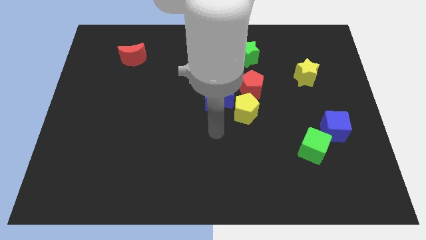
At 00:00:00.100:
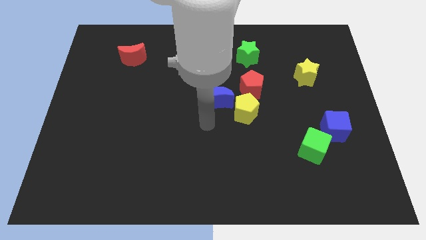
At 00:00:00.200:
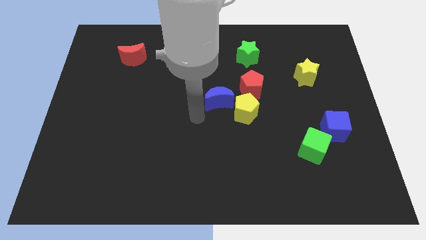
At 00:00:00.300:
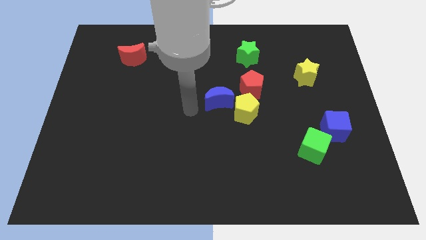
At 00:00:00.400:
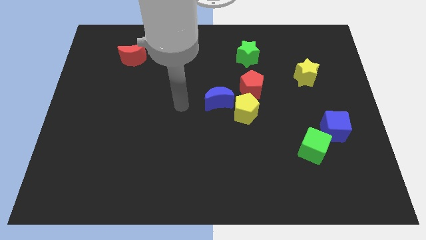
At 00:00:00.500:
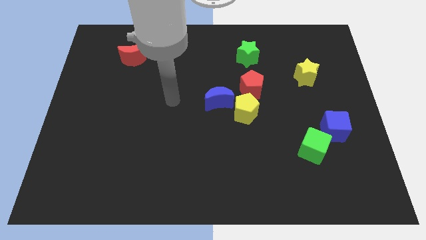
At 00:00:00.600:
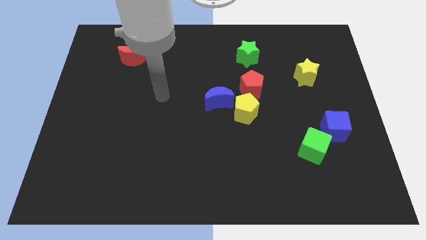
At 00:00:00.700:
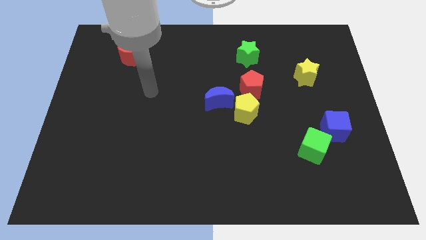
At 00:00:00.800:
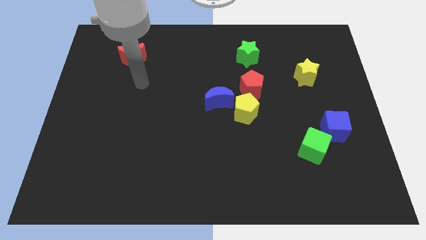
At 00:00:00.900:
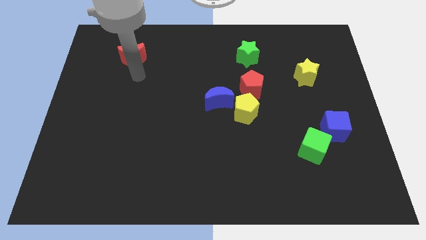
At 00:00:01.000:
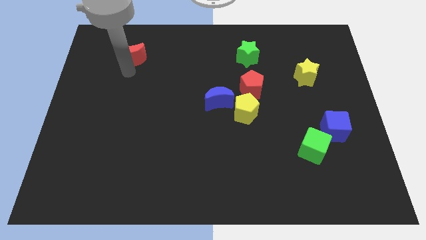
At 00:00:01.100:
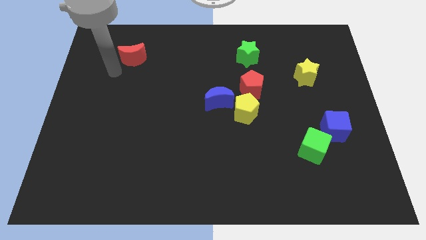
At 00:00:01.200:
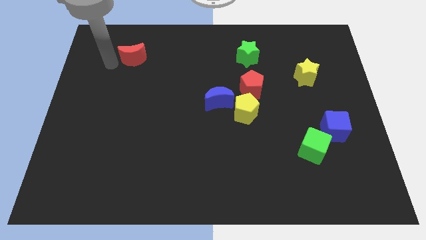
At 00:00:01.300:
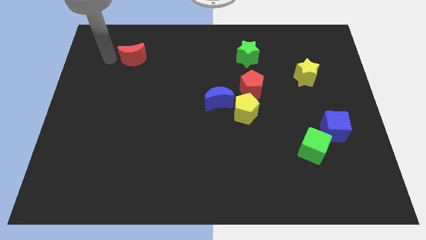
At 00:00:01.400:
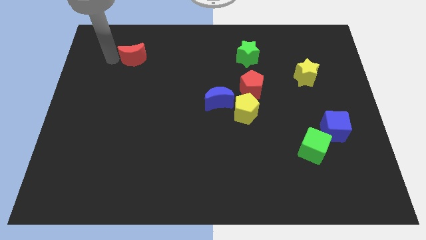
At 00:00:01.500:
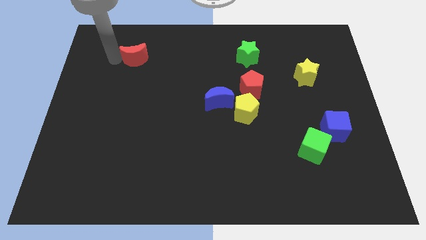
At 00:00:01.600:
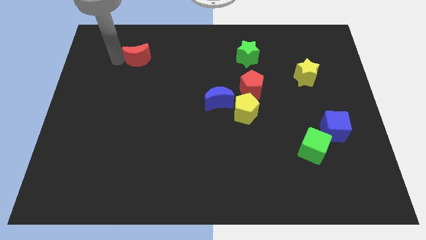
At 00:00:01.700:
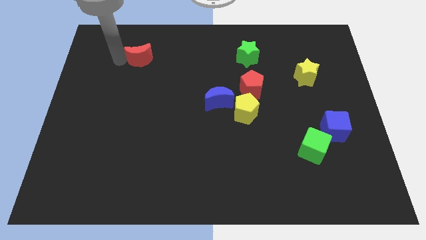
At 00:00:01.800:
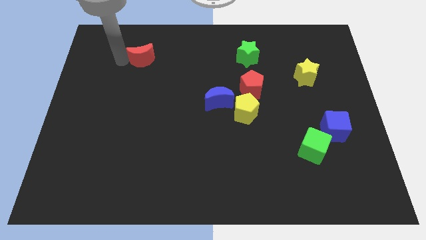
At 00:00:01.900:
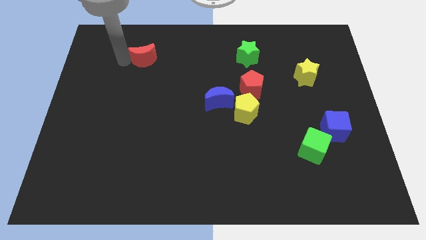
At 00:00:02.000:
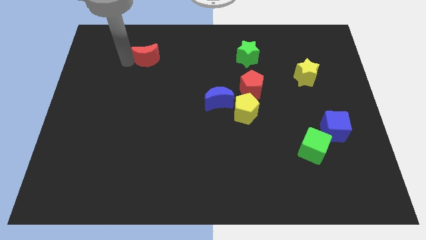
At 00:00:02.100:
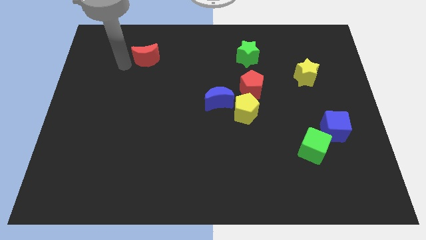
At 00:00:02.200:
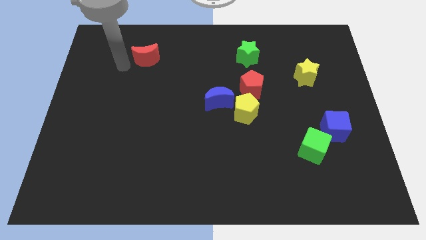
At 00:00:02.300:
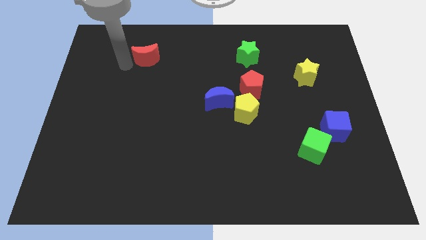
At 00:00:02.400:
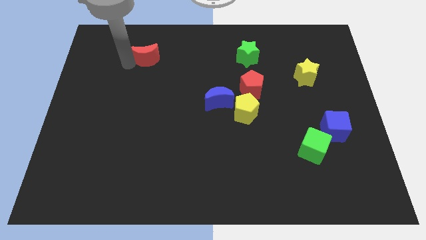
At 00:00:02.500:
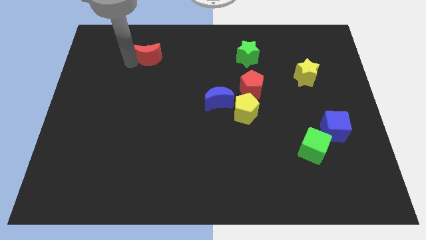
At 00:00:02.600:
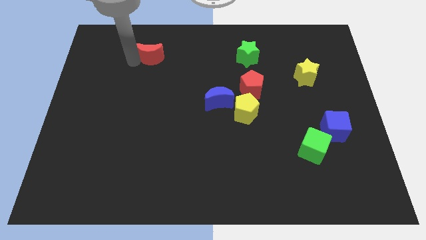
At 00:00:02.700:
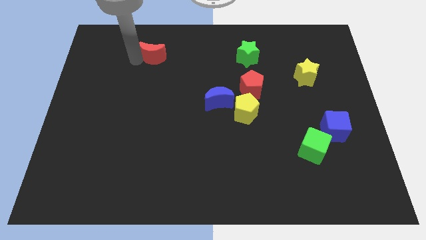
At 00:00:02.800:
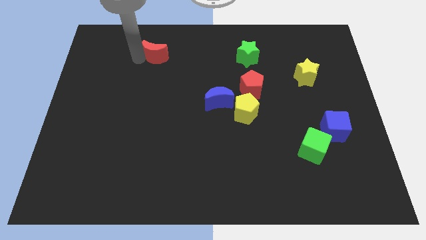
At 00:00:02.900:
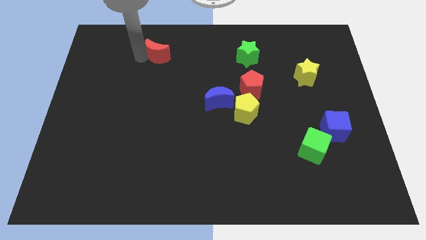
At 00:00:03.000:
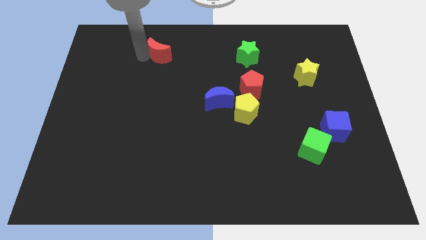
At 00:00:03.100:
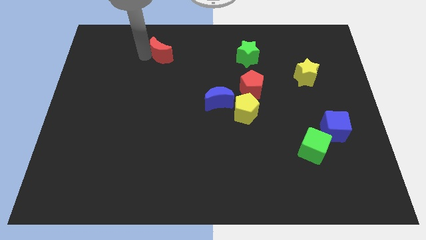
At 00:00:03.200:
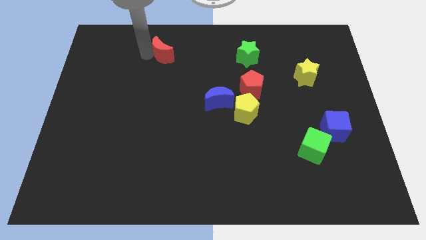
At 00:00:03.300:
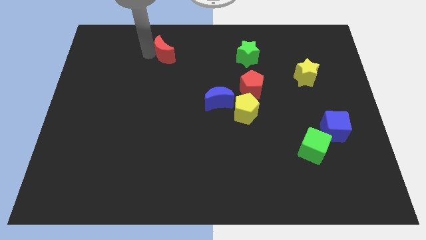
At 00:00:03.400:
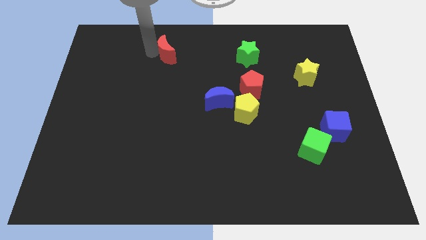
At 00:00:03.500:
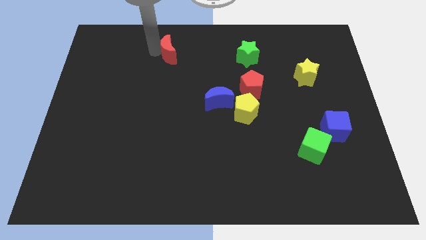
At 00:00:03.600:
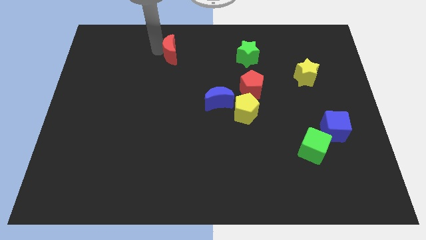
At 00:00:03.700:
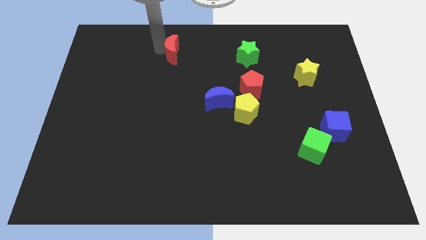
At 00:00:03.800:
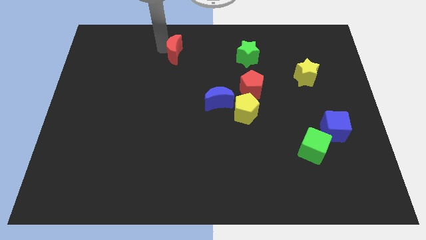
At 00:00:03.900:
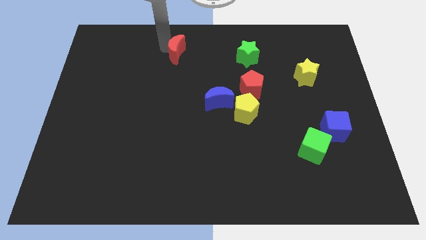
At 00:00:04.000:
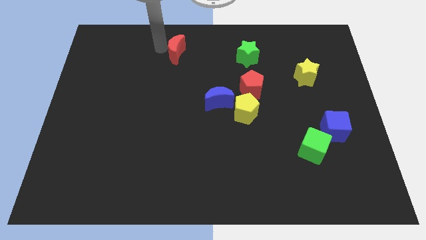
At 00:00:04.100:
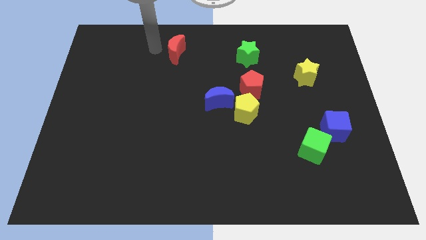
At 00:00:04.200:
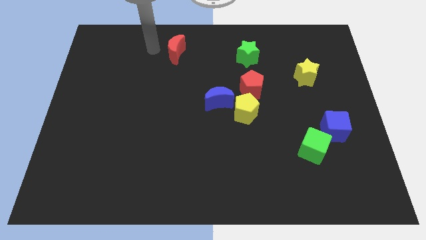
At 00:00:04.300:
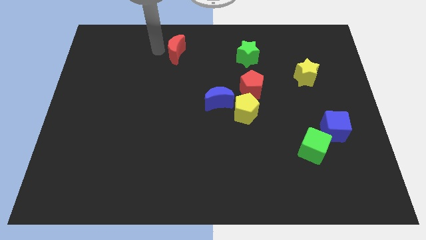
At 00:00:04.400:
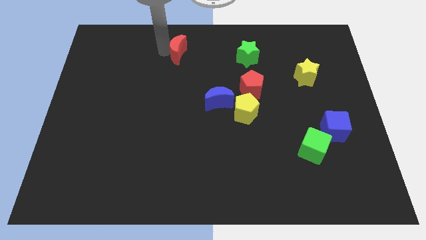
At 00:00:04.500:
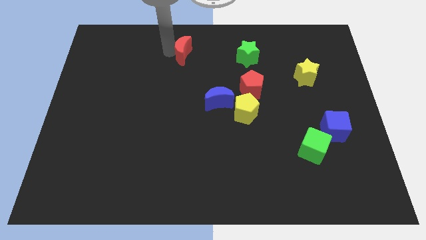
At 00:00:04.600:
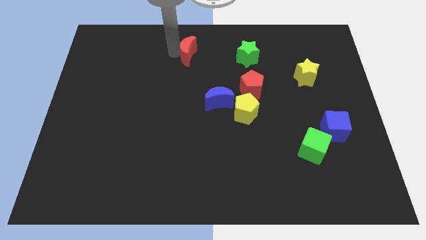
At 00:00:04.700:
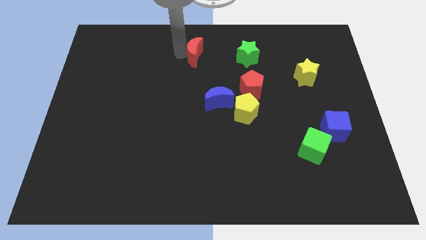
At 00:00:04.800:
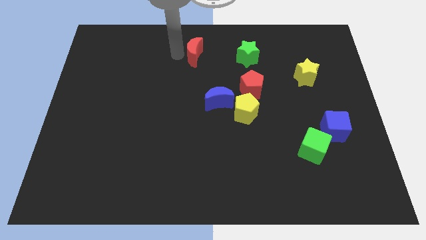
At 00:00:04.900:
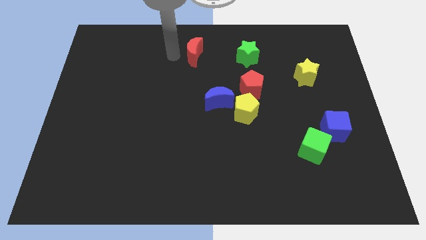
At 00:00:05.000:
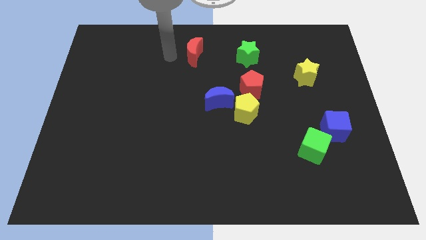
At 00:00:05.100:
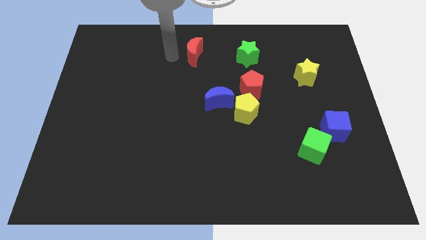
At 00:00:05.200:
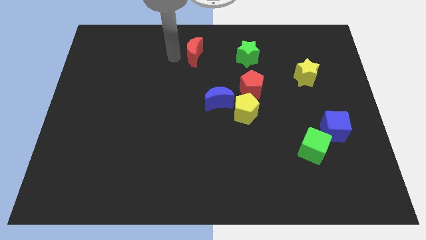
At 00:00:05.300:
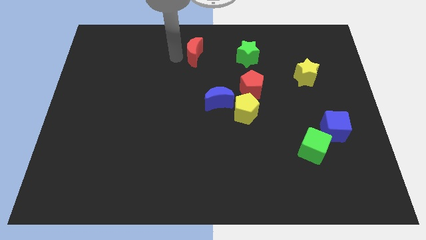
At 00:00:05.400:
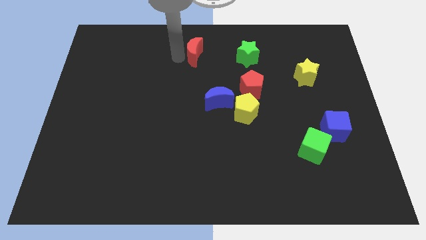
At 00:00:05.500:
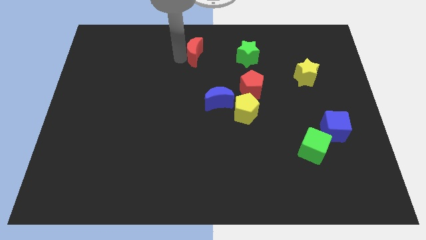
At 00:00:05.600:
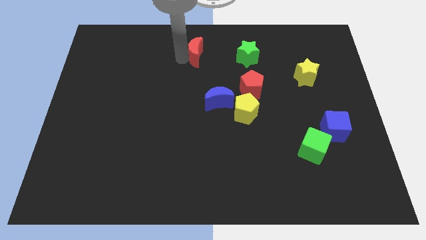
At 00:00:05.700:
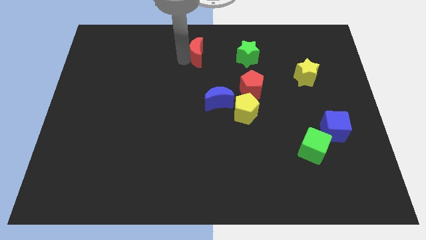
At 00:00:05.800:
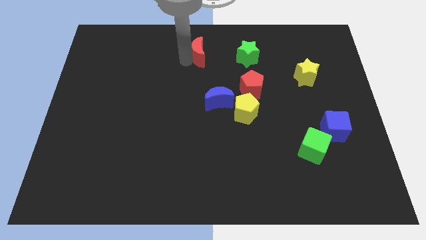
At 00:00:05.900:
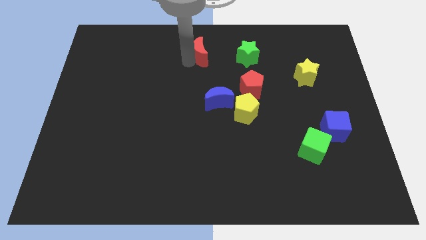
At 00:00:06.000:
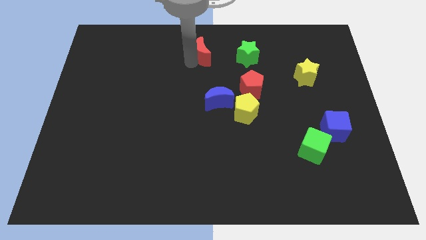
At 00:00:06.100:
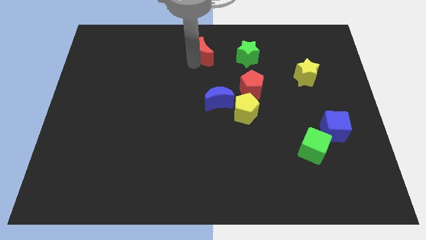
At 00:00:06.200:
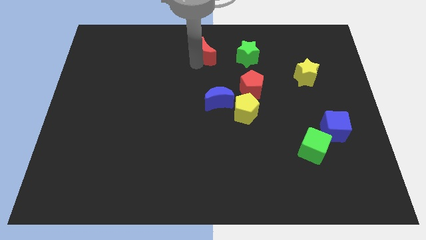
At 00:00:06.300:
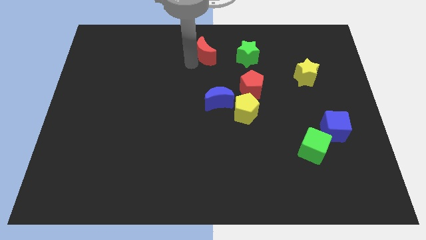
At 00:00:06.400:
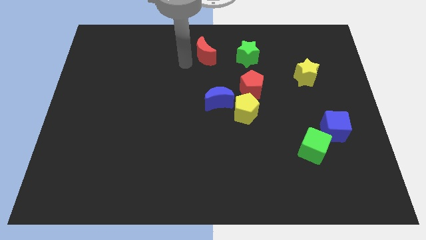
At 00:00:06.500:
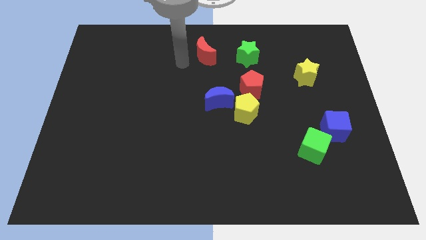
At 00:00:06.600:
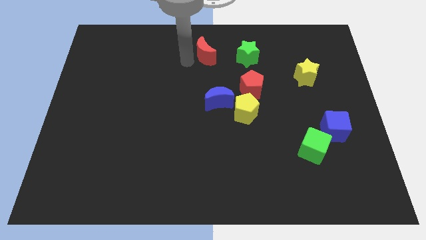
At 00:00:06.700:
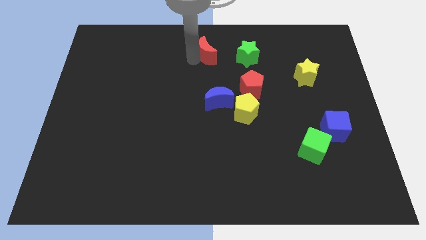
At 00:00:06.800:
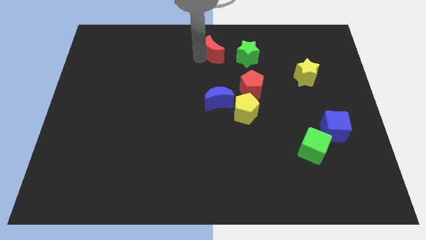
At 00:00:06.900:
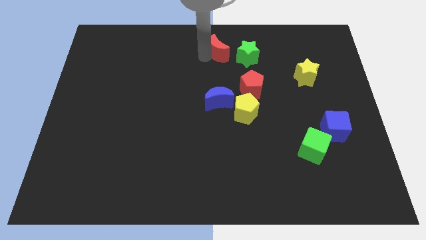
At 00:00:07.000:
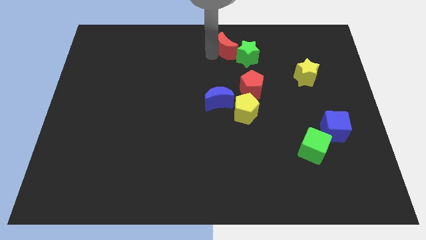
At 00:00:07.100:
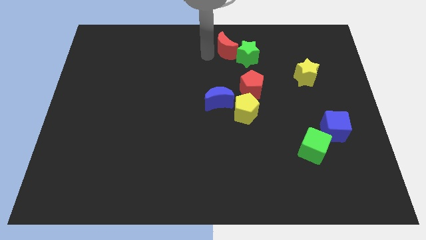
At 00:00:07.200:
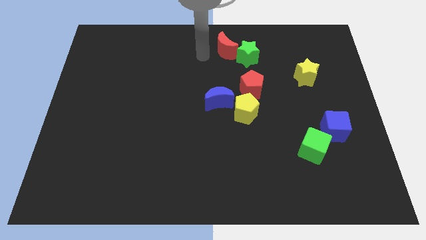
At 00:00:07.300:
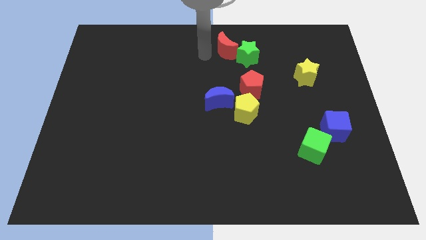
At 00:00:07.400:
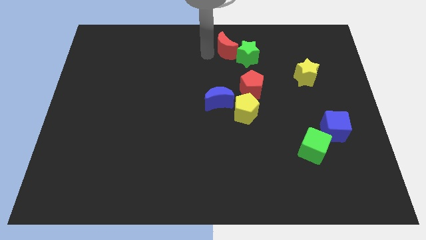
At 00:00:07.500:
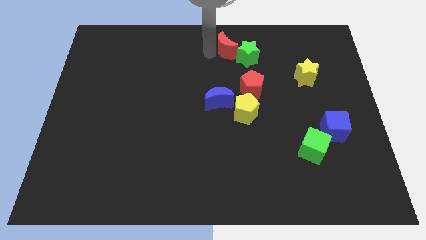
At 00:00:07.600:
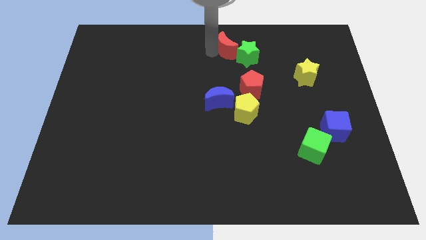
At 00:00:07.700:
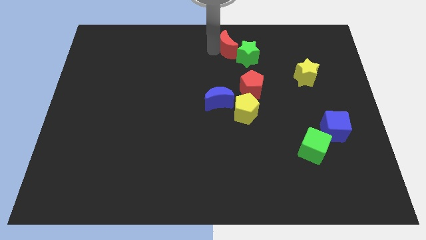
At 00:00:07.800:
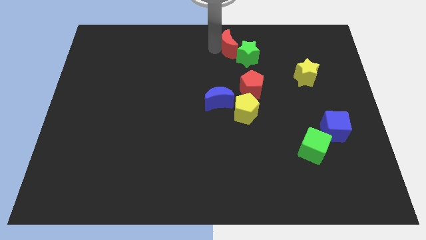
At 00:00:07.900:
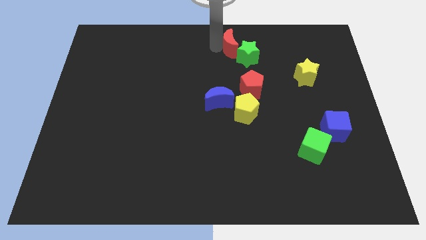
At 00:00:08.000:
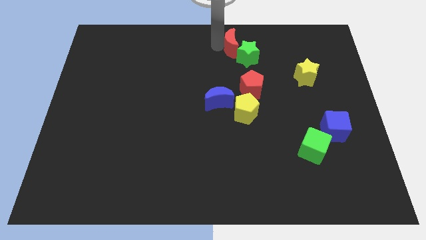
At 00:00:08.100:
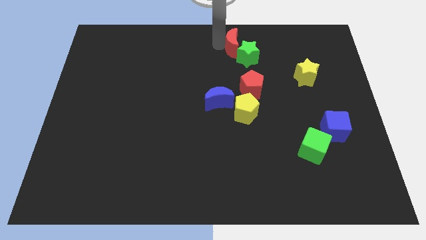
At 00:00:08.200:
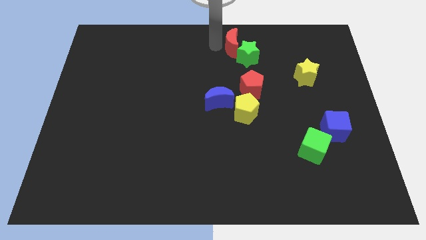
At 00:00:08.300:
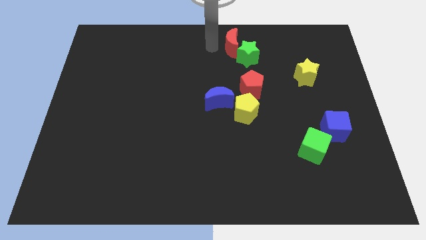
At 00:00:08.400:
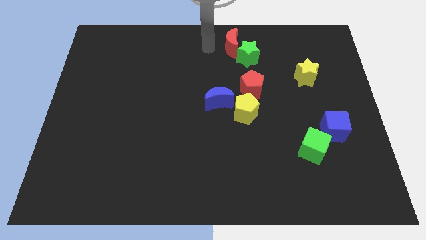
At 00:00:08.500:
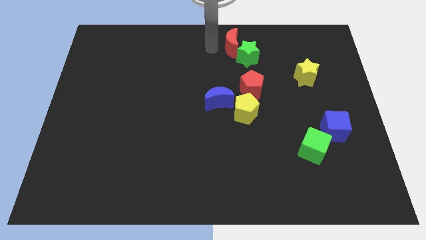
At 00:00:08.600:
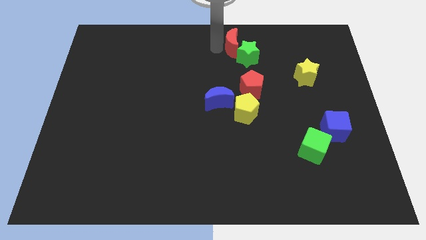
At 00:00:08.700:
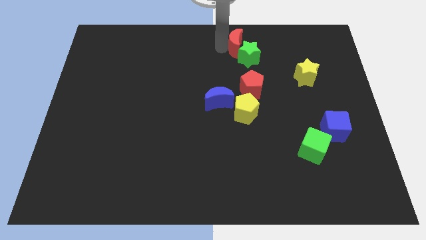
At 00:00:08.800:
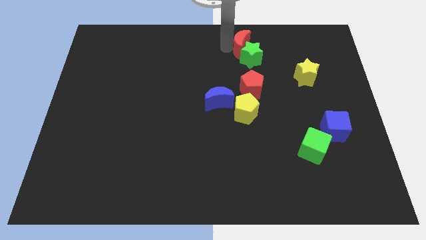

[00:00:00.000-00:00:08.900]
put the red moon above the red pentagon
